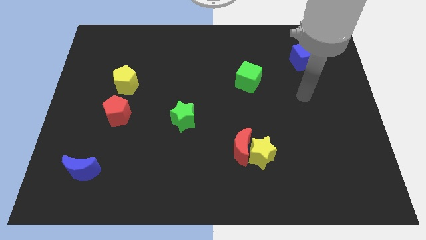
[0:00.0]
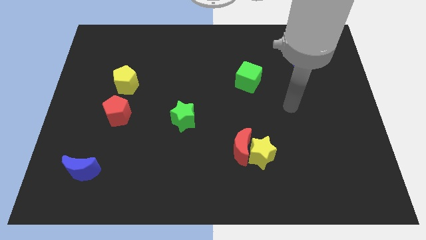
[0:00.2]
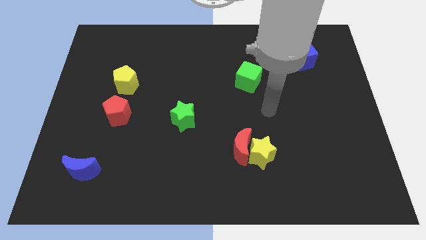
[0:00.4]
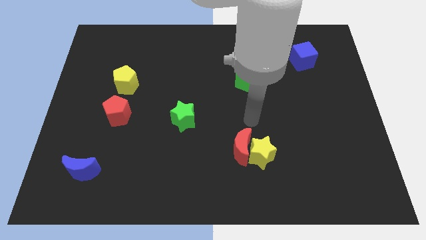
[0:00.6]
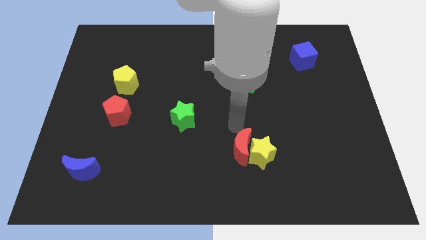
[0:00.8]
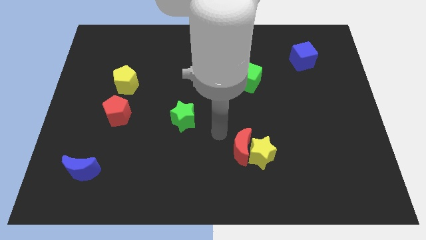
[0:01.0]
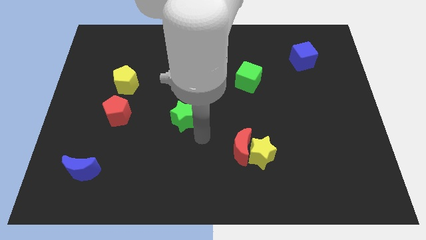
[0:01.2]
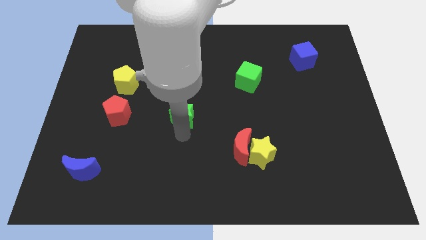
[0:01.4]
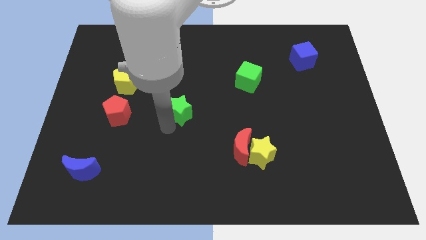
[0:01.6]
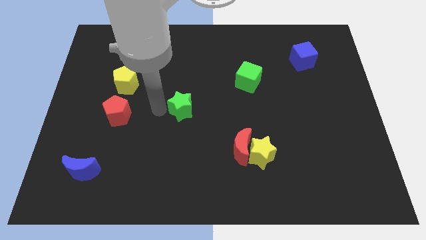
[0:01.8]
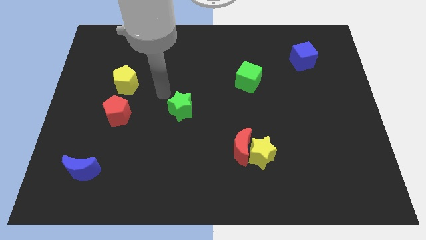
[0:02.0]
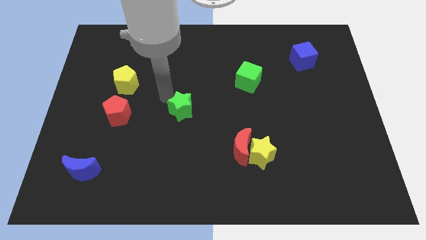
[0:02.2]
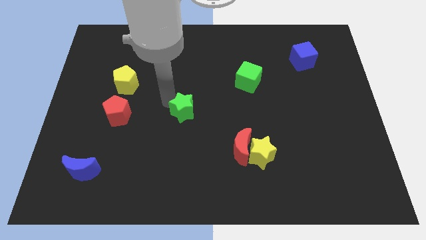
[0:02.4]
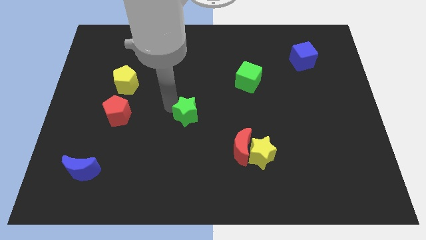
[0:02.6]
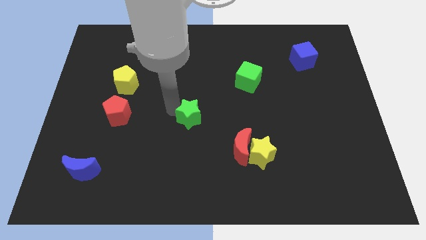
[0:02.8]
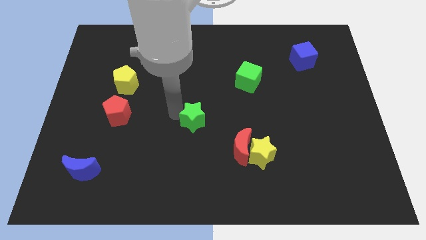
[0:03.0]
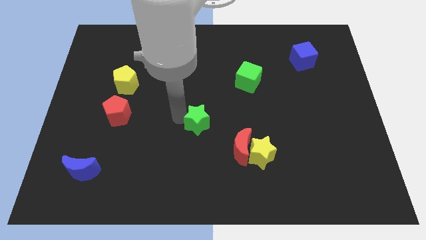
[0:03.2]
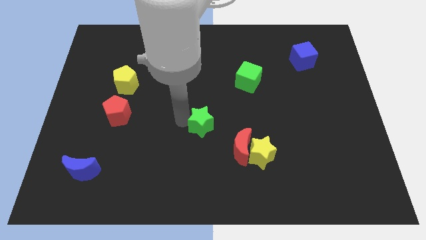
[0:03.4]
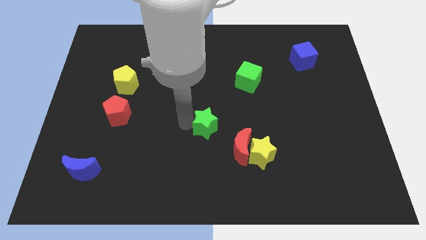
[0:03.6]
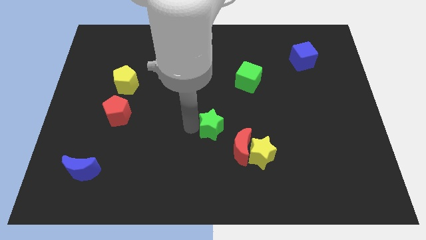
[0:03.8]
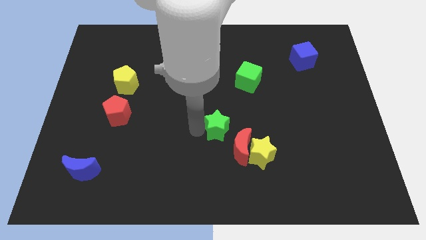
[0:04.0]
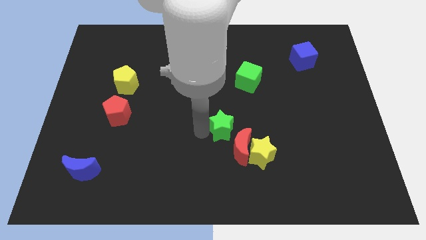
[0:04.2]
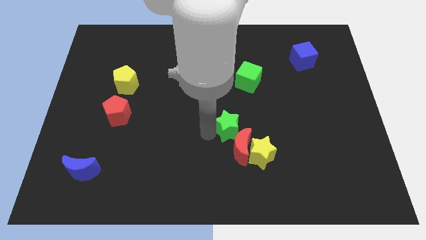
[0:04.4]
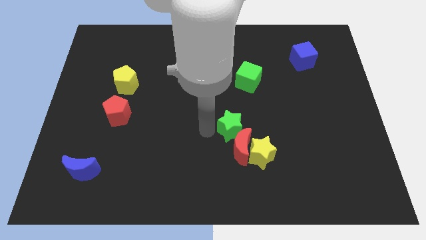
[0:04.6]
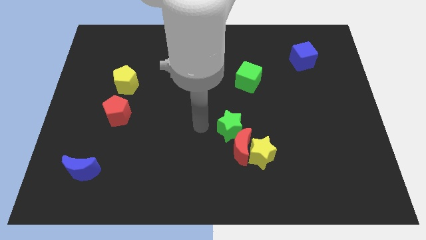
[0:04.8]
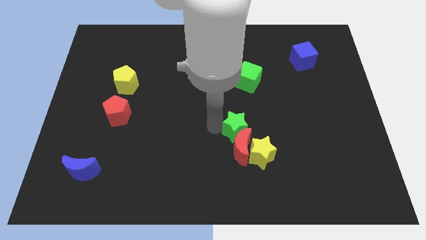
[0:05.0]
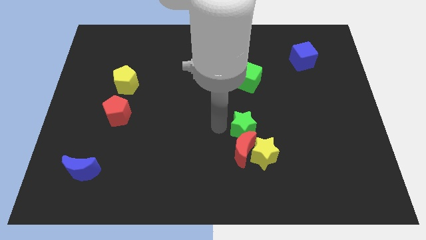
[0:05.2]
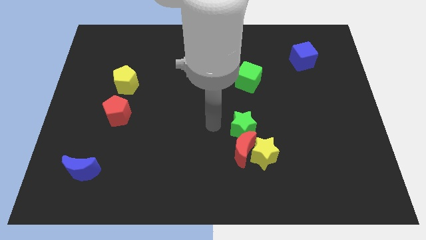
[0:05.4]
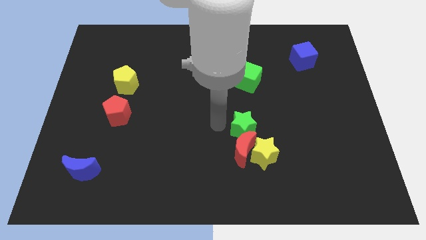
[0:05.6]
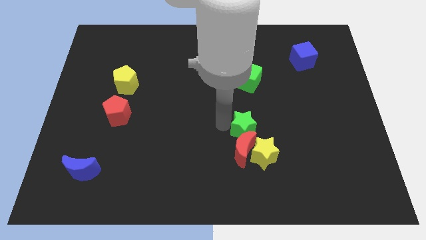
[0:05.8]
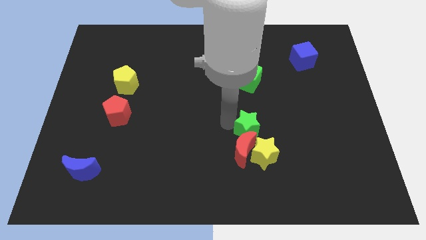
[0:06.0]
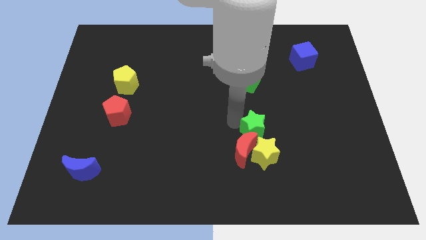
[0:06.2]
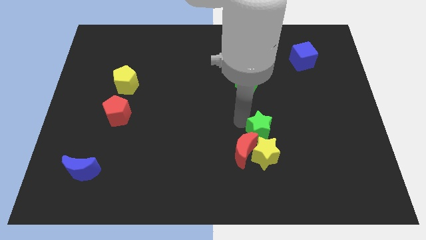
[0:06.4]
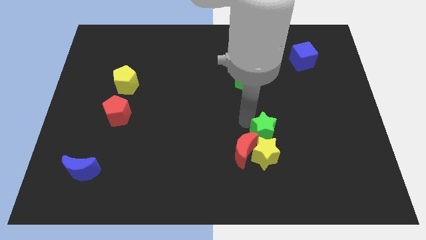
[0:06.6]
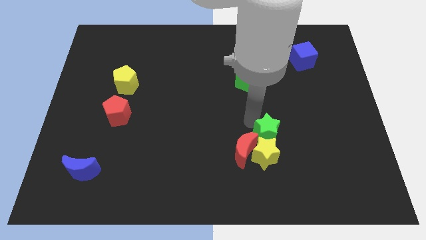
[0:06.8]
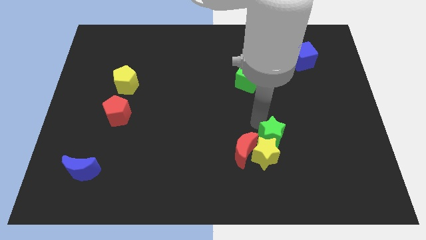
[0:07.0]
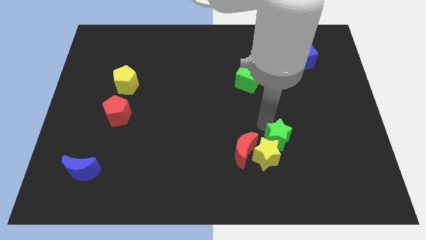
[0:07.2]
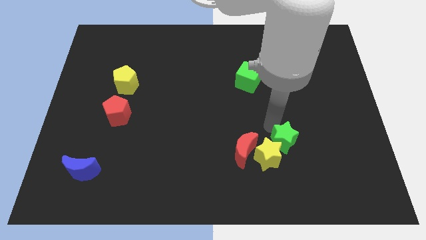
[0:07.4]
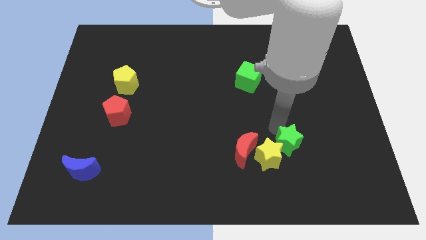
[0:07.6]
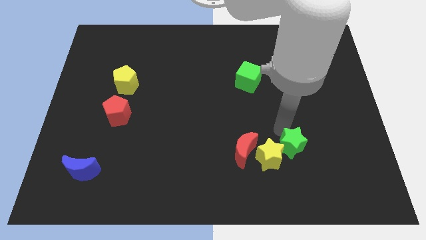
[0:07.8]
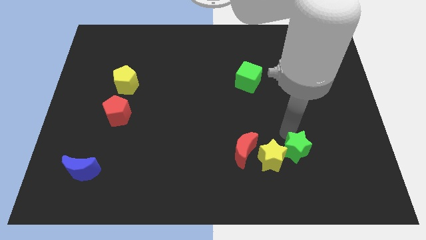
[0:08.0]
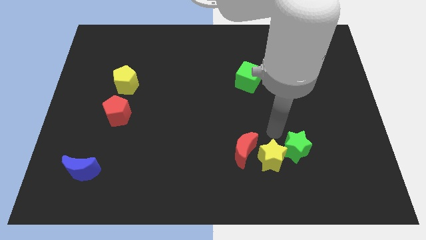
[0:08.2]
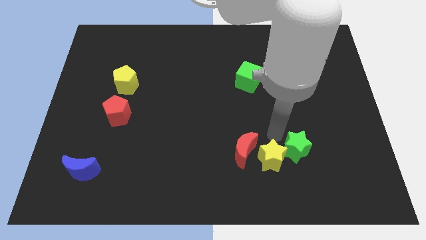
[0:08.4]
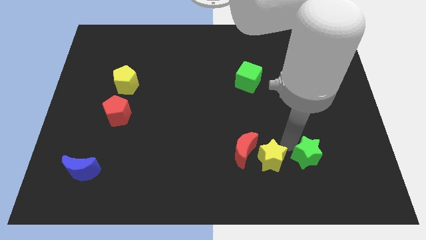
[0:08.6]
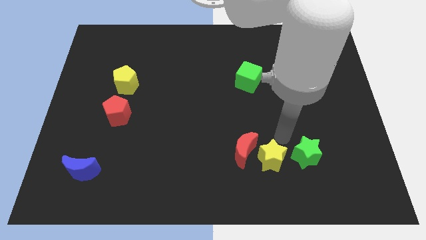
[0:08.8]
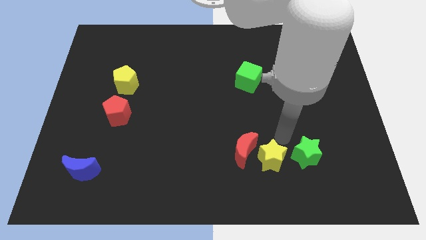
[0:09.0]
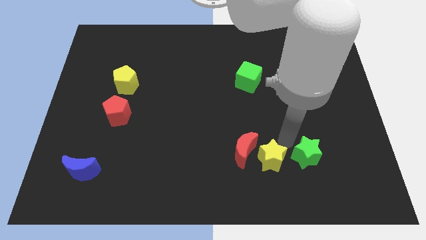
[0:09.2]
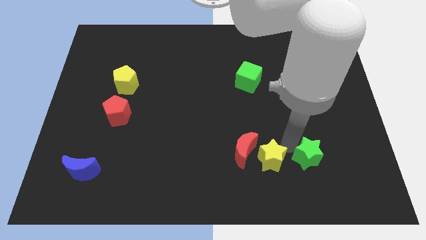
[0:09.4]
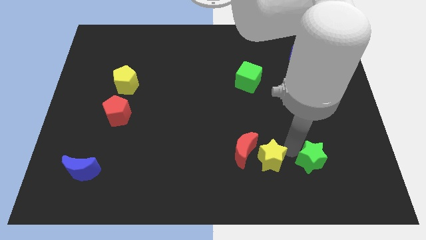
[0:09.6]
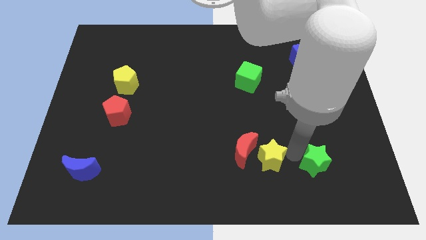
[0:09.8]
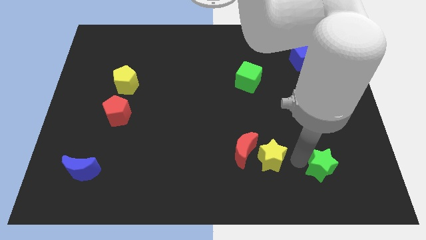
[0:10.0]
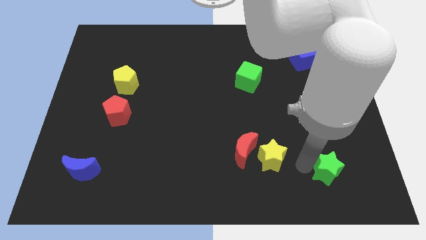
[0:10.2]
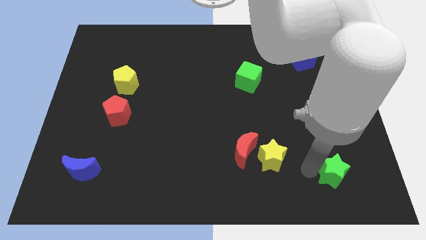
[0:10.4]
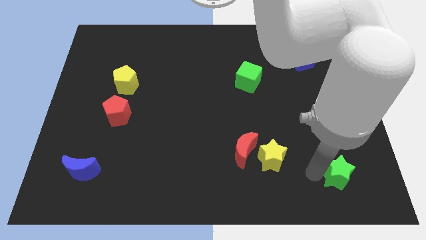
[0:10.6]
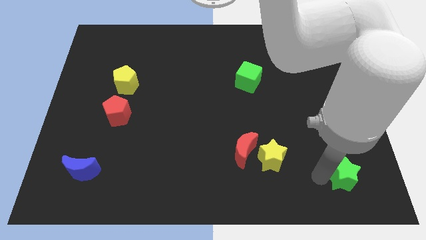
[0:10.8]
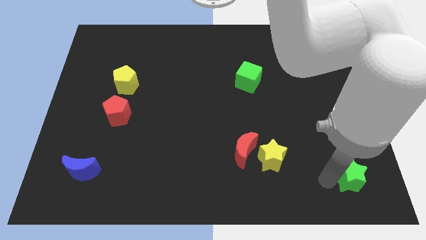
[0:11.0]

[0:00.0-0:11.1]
move the green star to the bottom right of the board

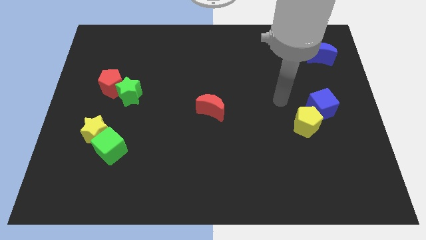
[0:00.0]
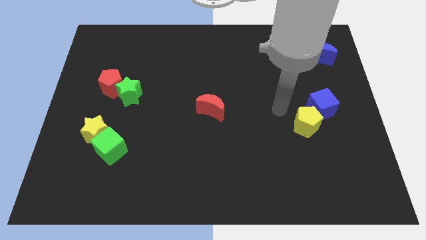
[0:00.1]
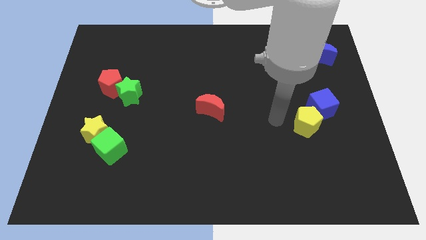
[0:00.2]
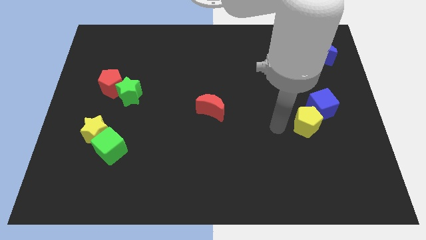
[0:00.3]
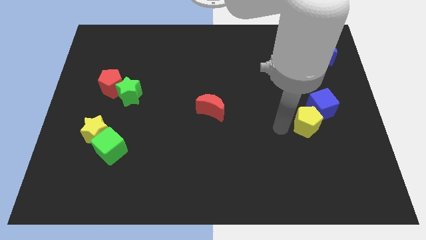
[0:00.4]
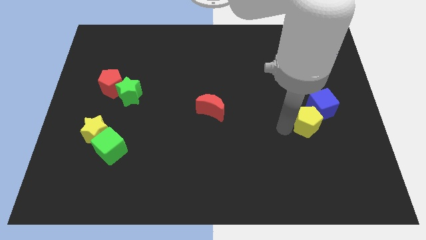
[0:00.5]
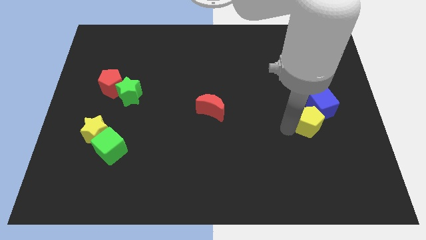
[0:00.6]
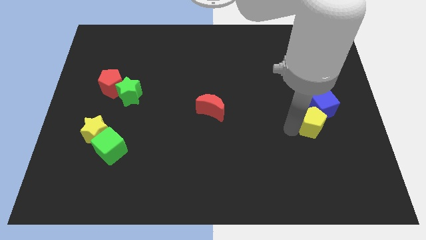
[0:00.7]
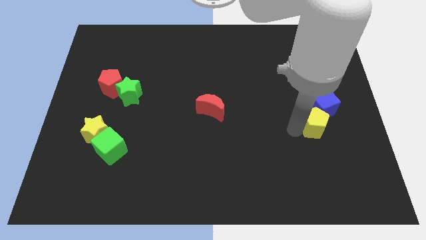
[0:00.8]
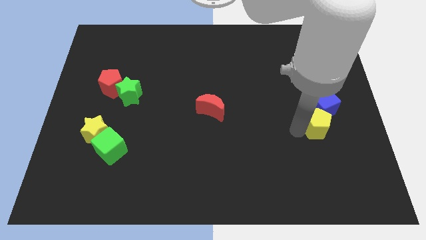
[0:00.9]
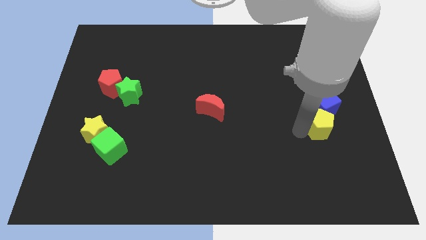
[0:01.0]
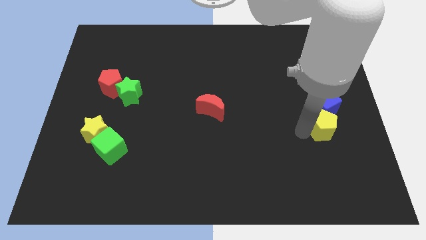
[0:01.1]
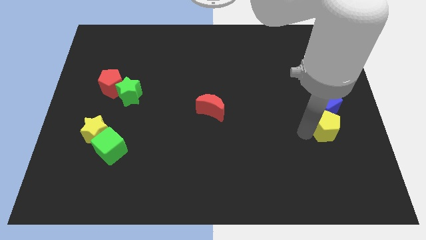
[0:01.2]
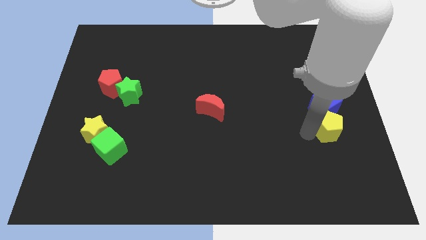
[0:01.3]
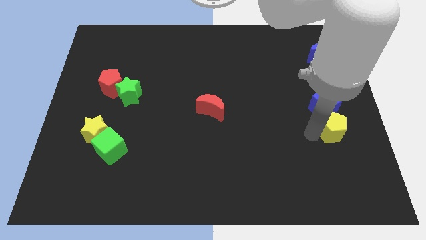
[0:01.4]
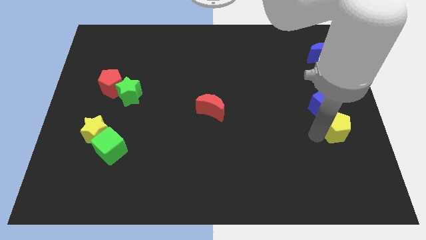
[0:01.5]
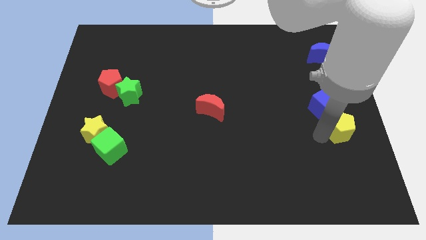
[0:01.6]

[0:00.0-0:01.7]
push the yellow pentagon to the center right
